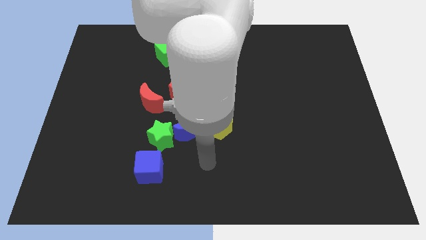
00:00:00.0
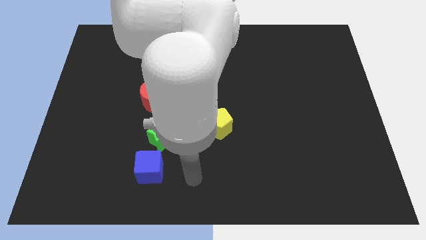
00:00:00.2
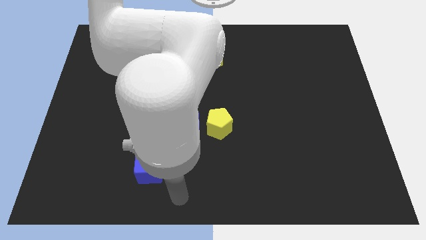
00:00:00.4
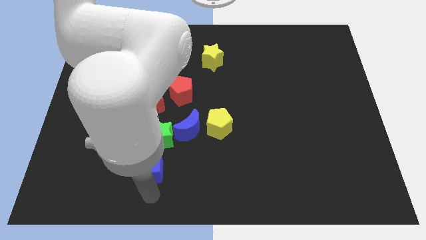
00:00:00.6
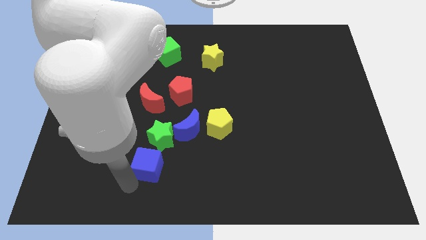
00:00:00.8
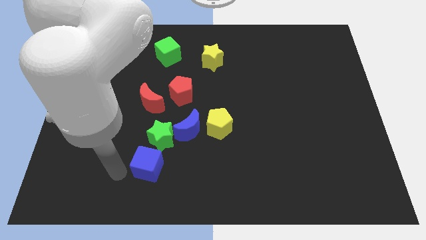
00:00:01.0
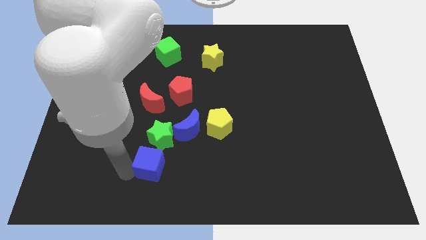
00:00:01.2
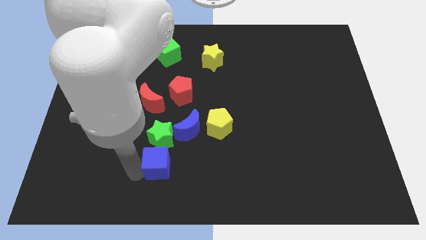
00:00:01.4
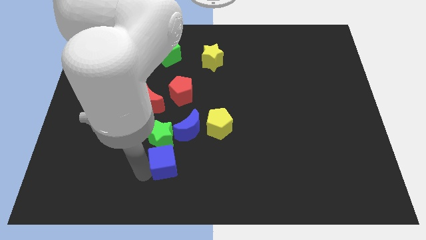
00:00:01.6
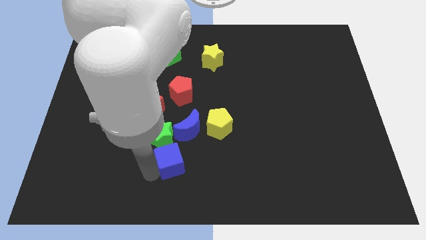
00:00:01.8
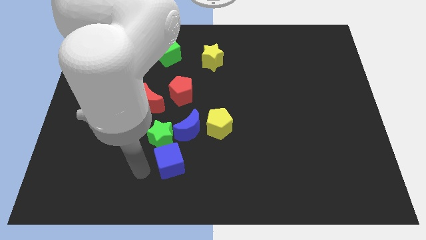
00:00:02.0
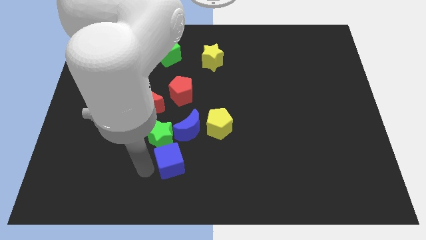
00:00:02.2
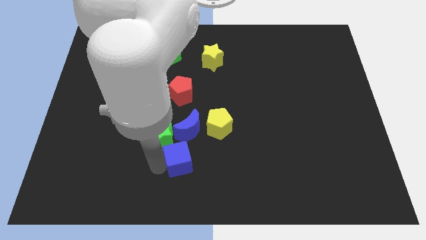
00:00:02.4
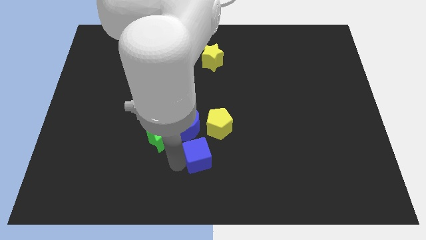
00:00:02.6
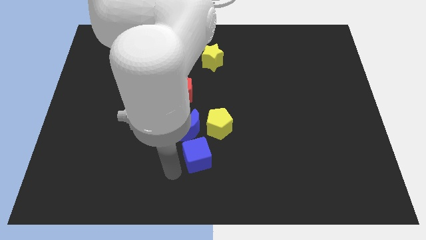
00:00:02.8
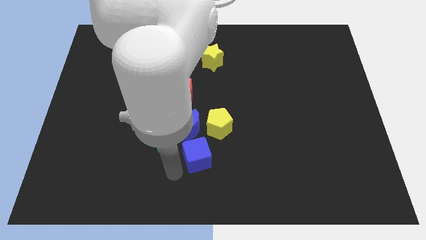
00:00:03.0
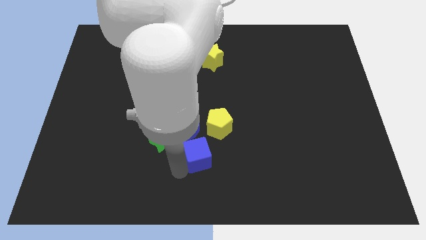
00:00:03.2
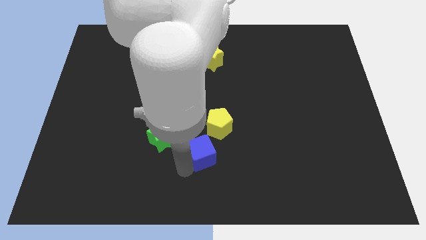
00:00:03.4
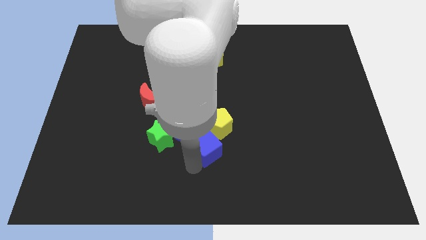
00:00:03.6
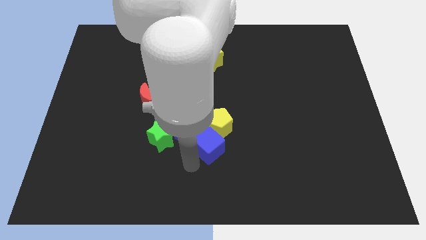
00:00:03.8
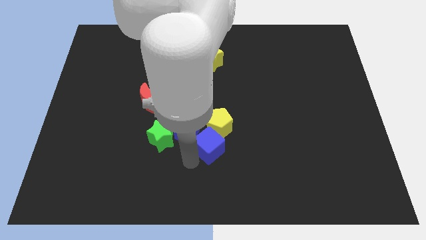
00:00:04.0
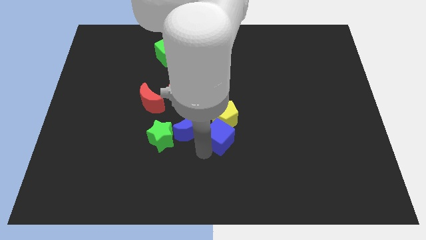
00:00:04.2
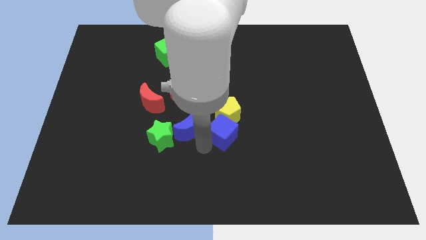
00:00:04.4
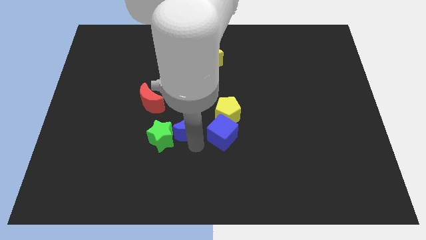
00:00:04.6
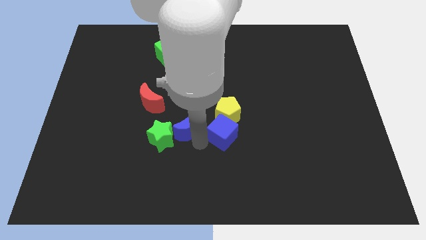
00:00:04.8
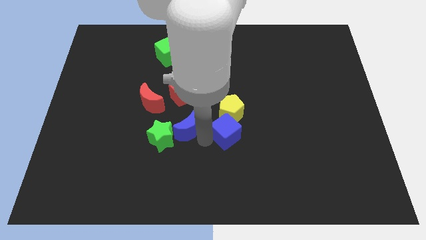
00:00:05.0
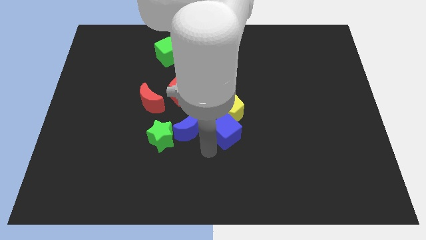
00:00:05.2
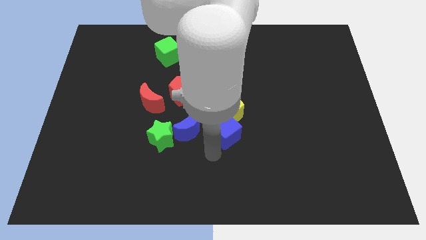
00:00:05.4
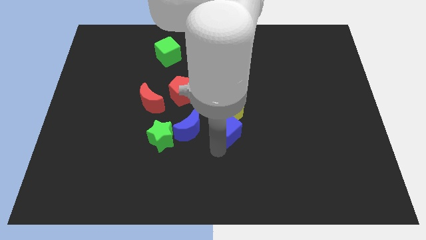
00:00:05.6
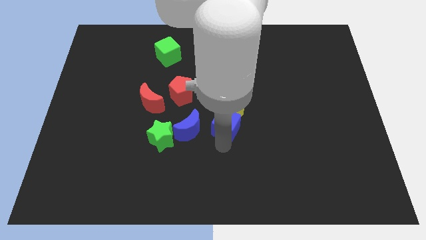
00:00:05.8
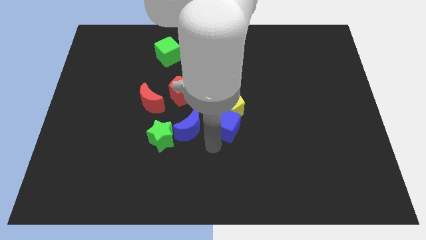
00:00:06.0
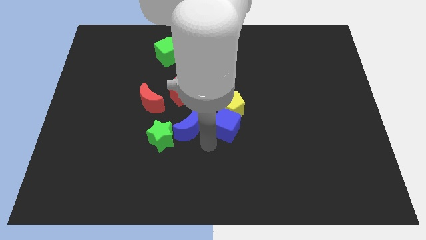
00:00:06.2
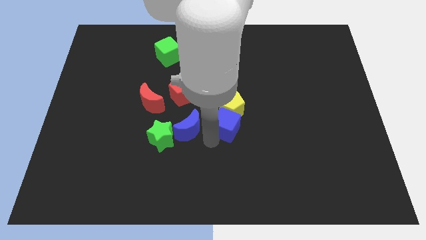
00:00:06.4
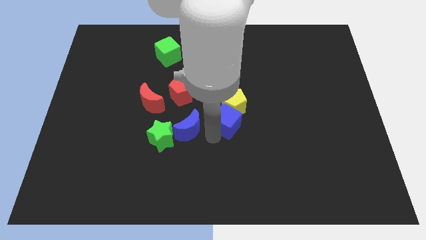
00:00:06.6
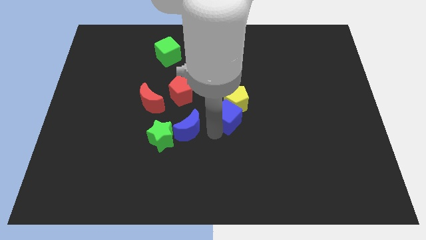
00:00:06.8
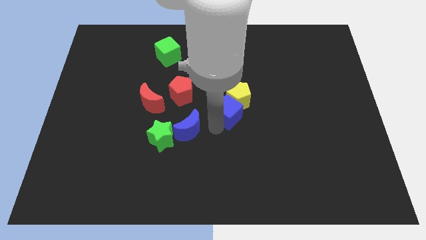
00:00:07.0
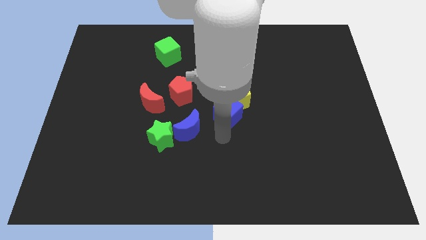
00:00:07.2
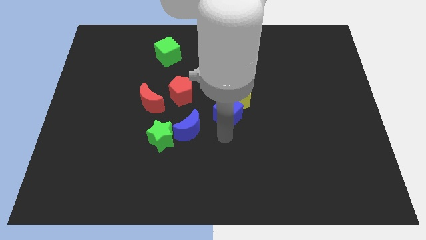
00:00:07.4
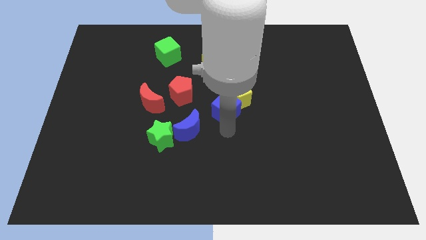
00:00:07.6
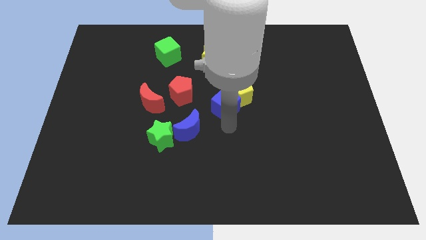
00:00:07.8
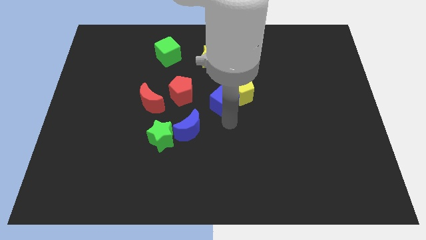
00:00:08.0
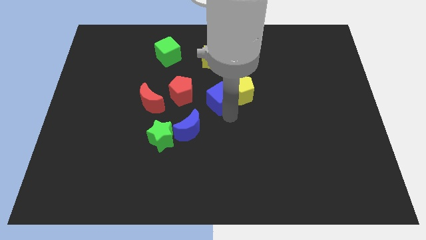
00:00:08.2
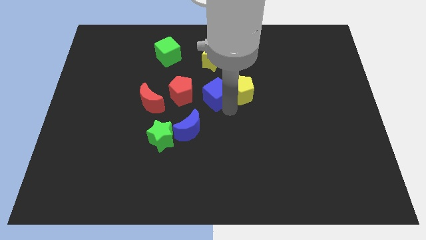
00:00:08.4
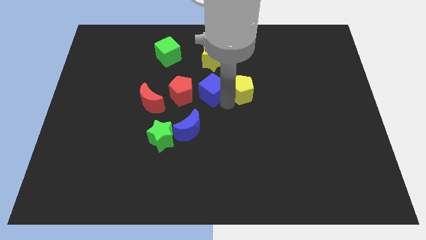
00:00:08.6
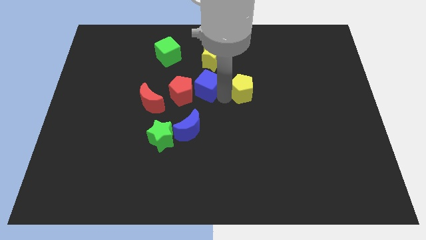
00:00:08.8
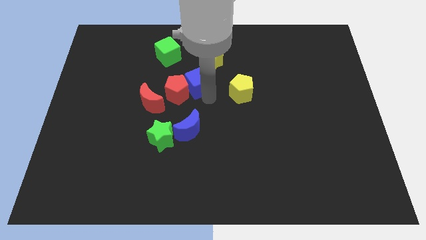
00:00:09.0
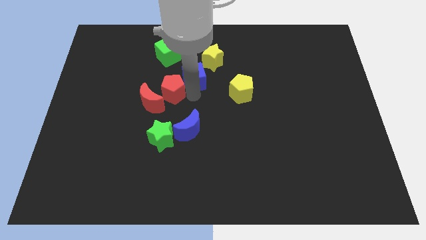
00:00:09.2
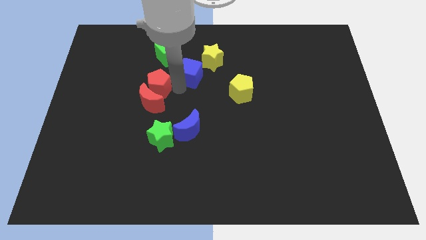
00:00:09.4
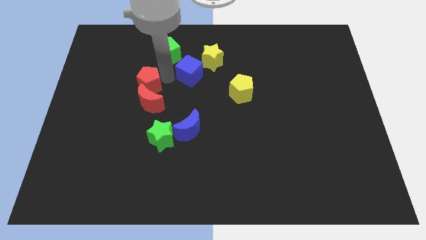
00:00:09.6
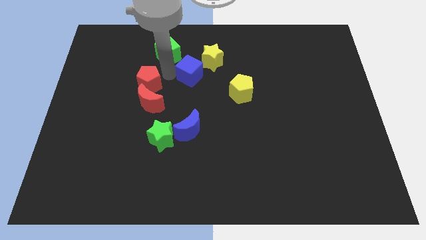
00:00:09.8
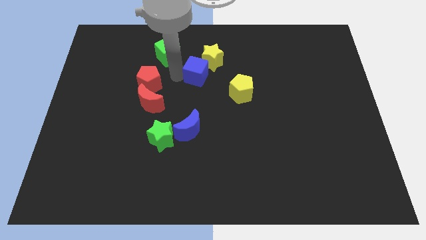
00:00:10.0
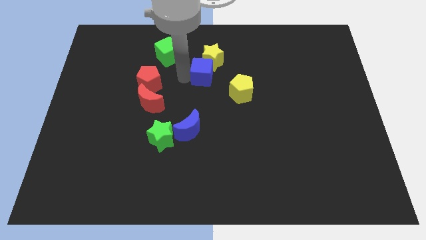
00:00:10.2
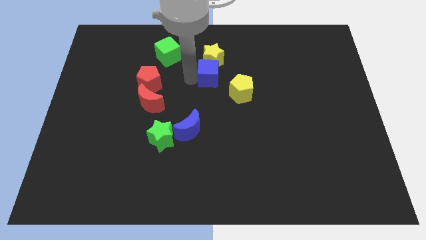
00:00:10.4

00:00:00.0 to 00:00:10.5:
put the blue cube to the bottom right side of the yellow star

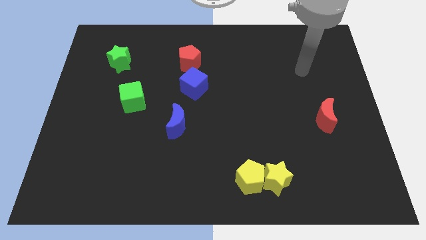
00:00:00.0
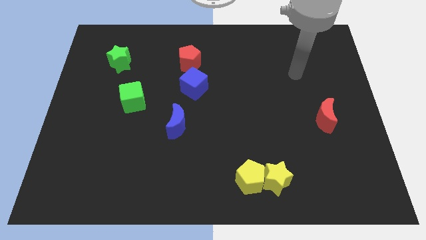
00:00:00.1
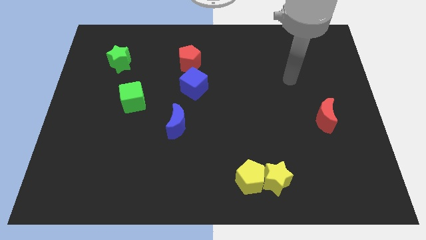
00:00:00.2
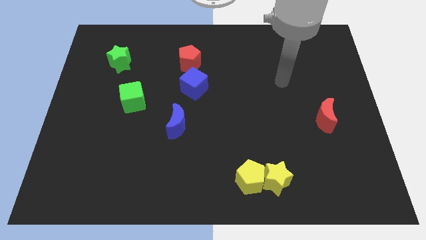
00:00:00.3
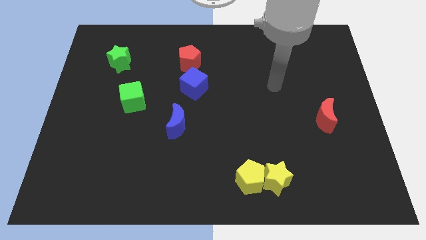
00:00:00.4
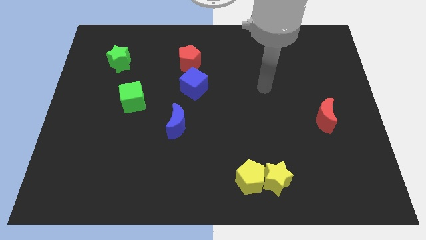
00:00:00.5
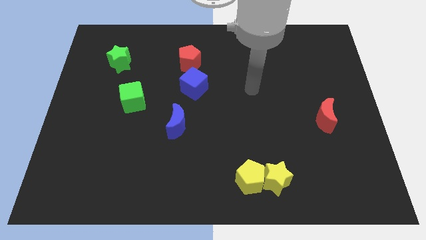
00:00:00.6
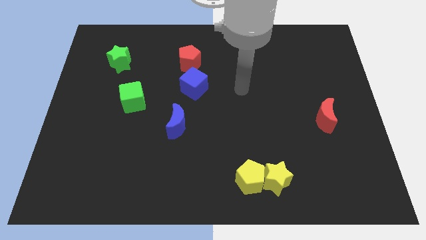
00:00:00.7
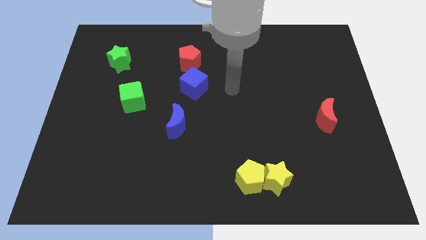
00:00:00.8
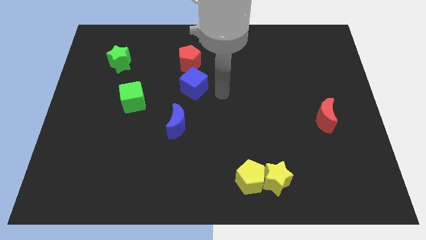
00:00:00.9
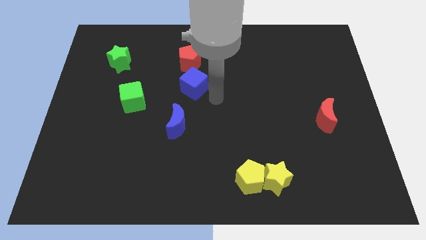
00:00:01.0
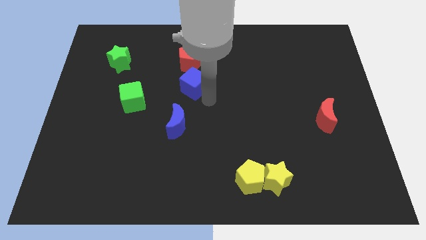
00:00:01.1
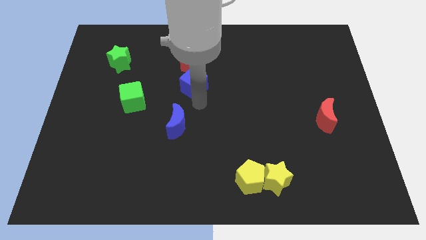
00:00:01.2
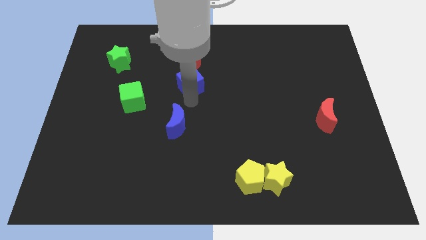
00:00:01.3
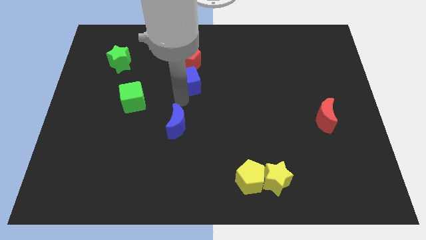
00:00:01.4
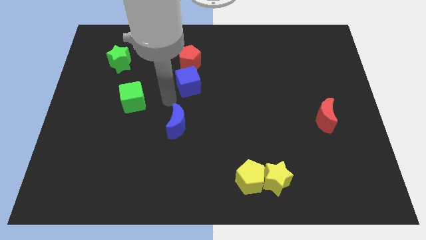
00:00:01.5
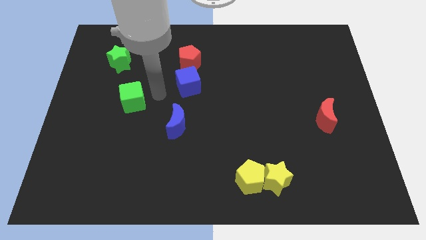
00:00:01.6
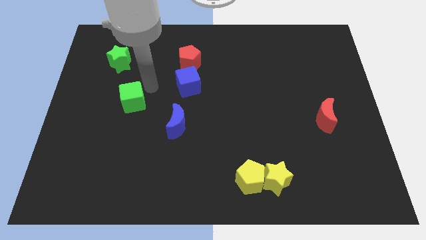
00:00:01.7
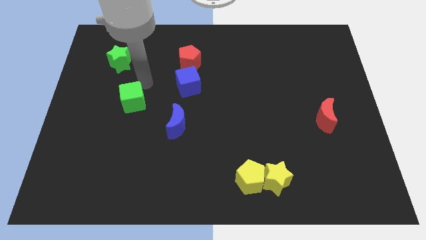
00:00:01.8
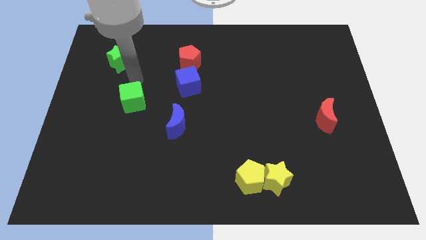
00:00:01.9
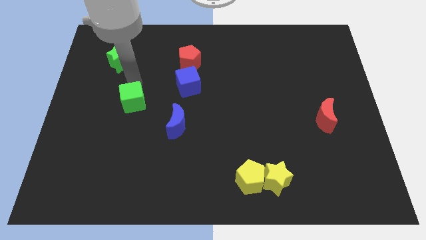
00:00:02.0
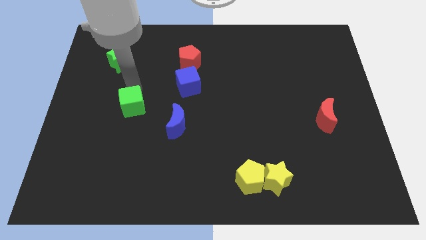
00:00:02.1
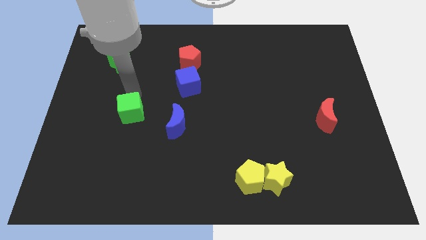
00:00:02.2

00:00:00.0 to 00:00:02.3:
move the green cube to the left of the blue moon

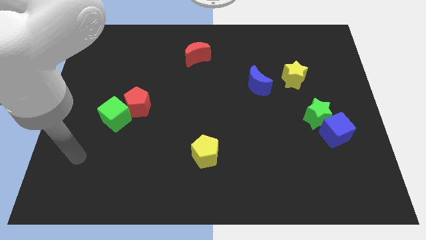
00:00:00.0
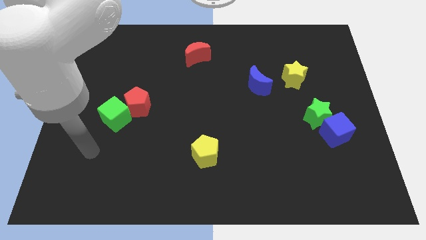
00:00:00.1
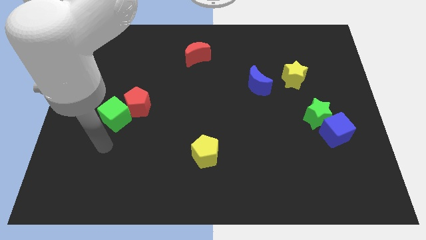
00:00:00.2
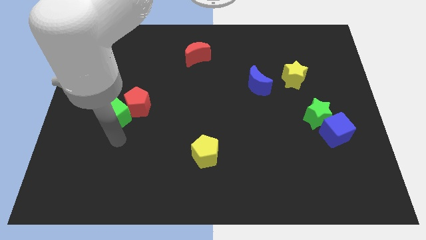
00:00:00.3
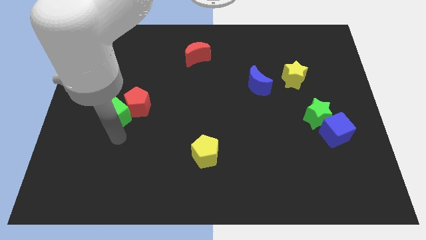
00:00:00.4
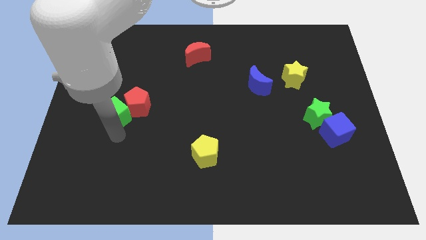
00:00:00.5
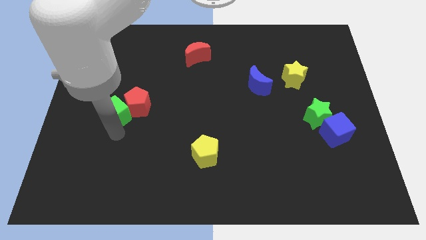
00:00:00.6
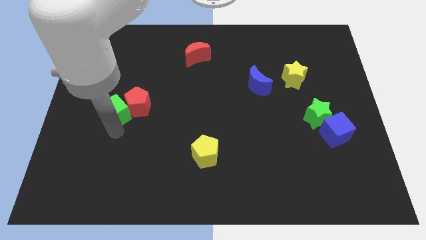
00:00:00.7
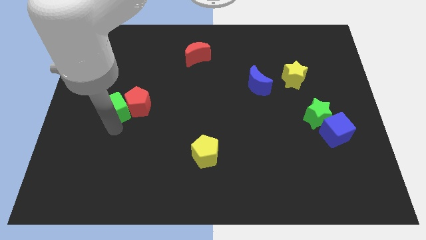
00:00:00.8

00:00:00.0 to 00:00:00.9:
slide the green cube to the top left side of the red pentagon
